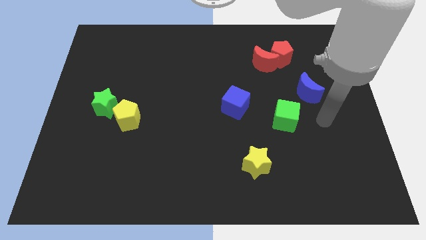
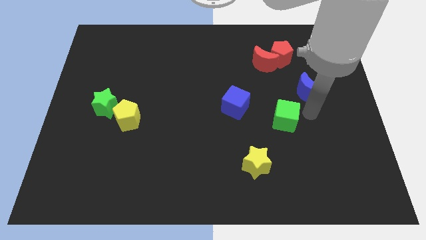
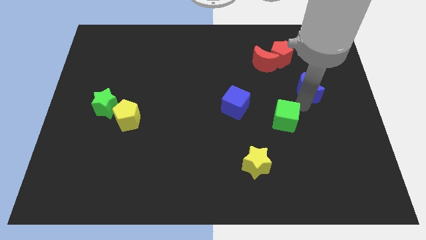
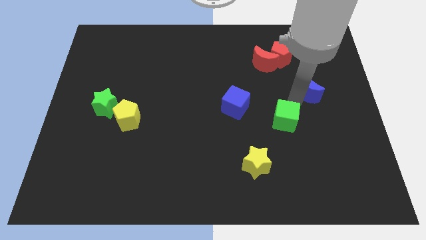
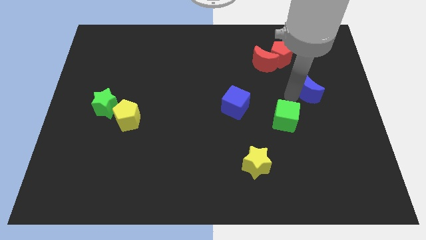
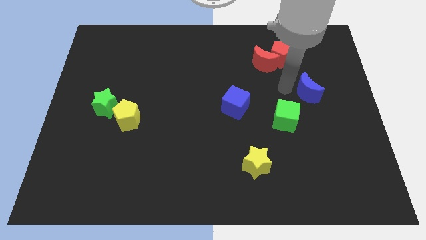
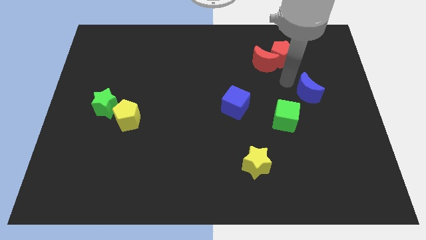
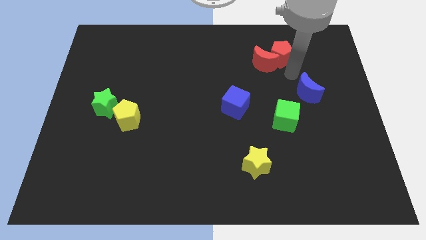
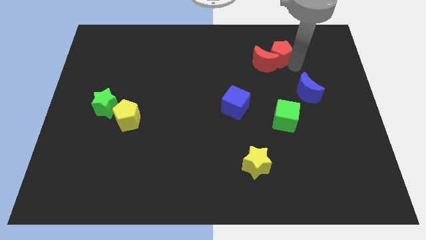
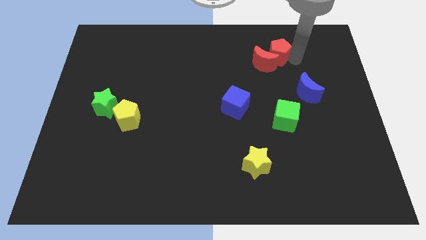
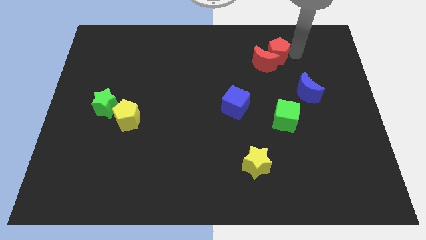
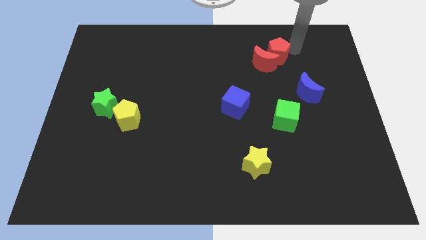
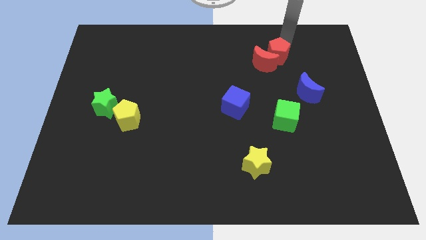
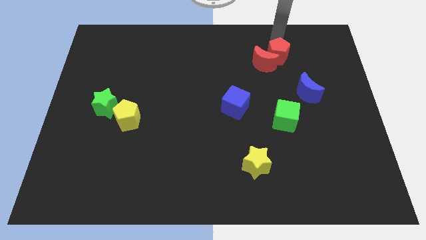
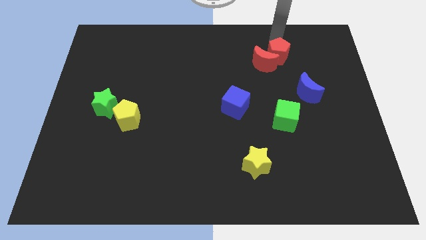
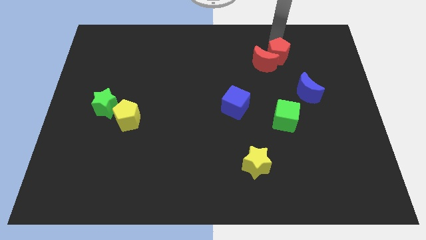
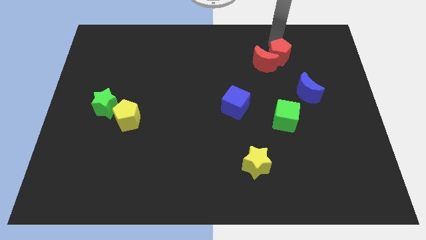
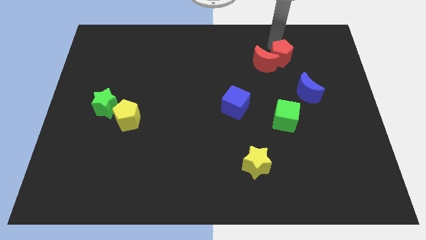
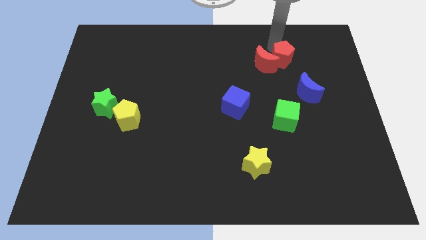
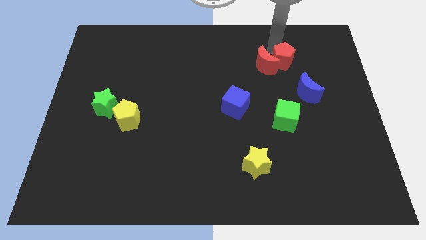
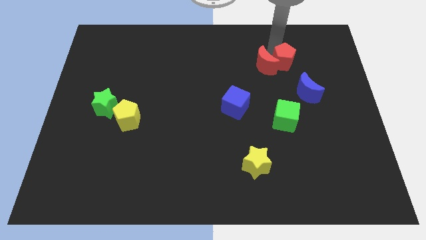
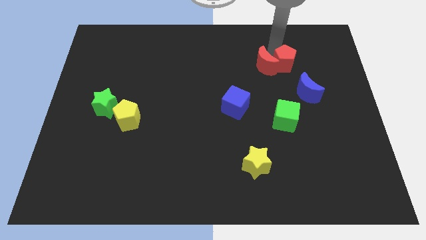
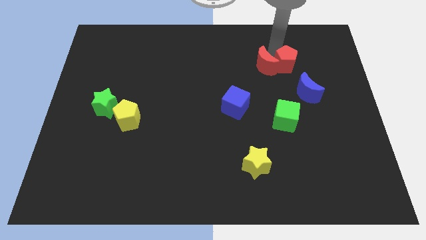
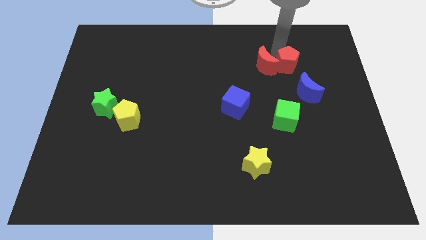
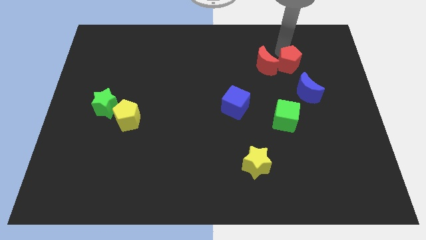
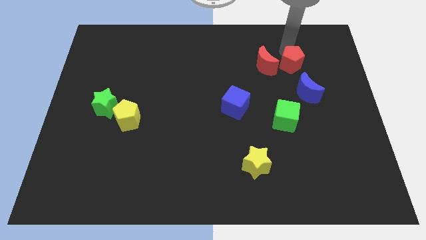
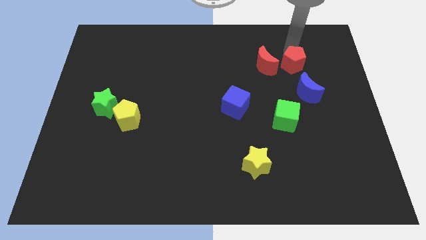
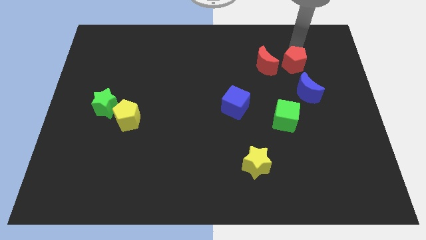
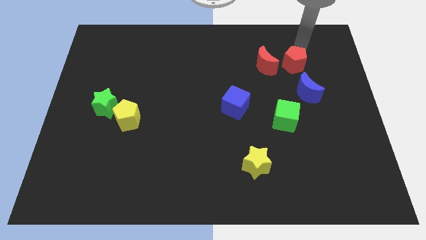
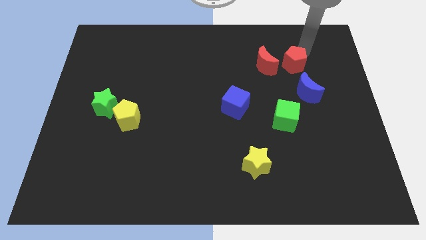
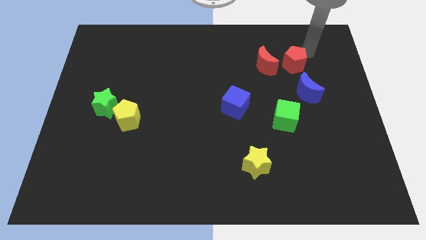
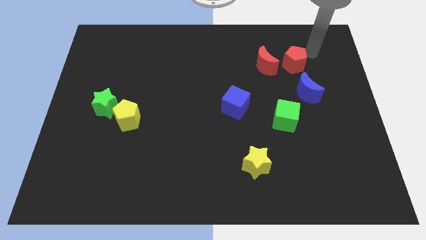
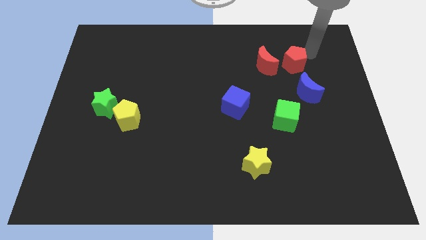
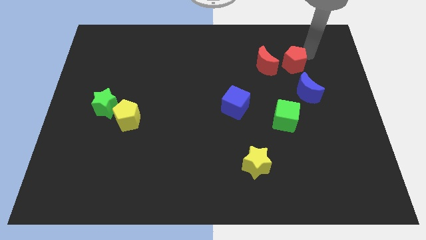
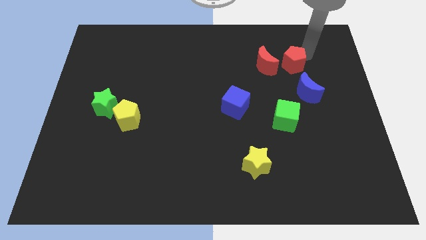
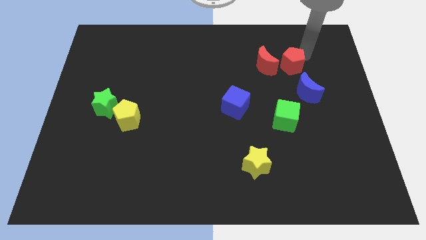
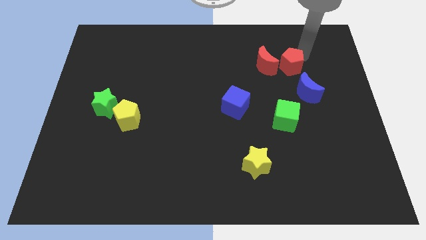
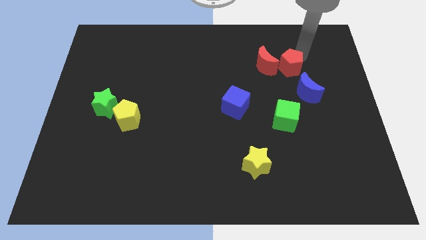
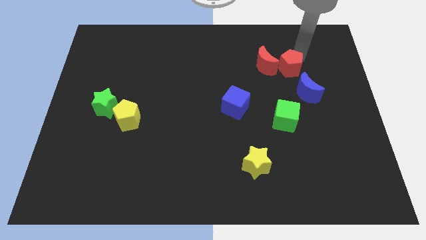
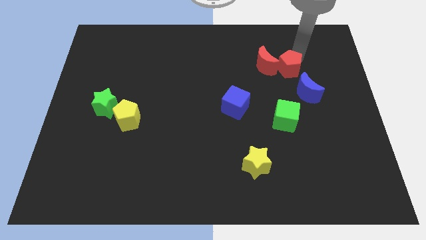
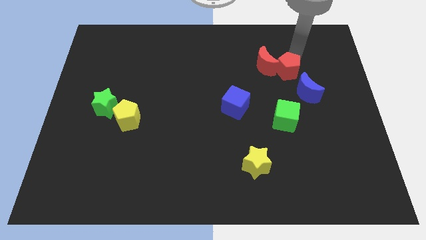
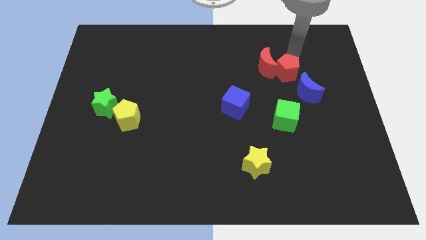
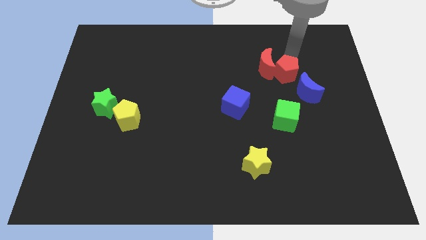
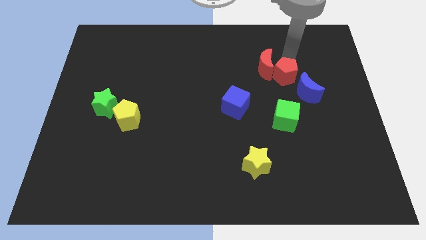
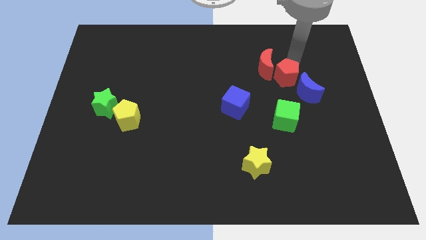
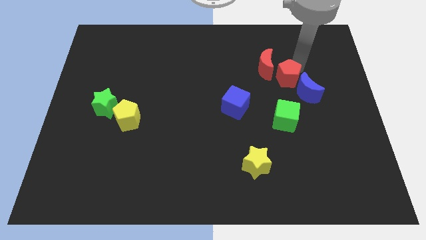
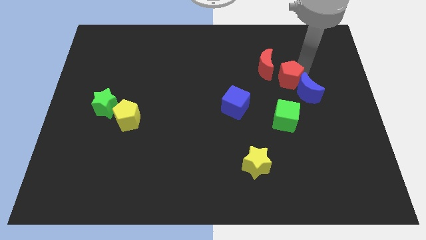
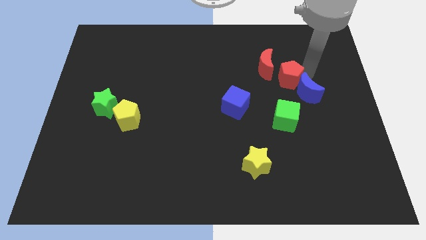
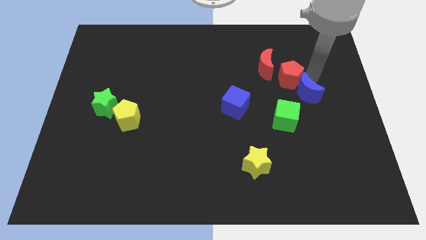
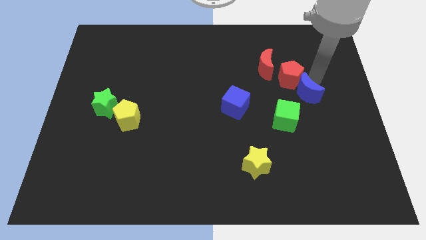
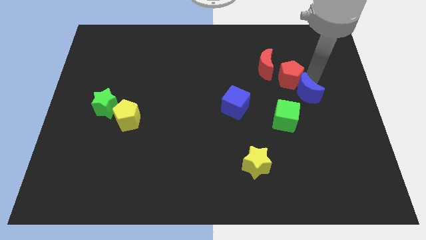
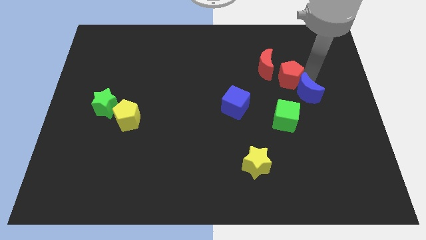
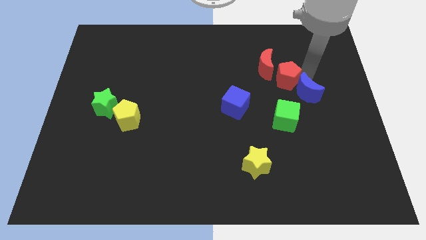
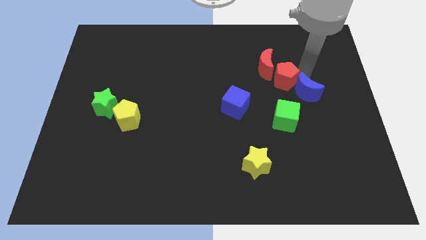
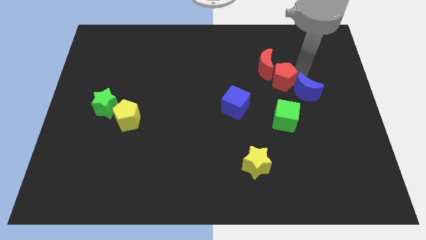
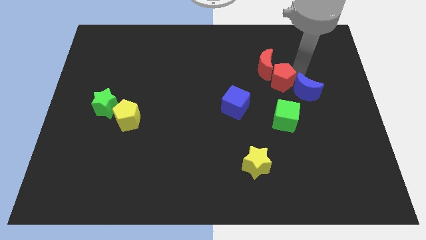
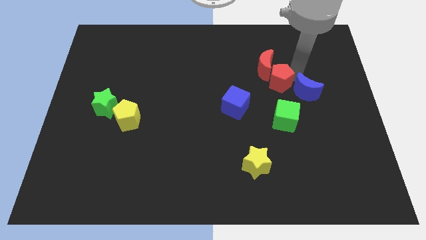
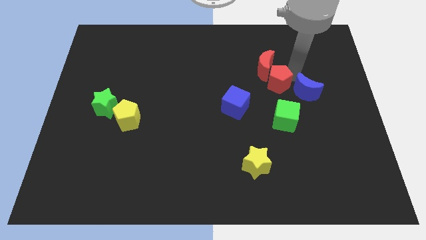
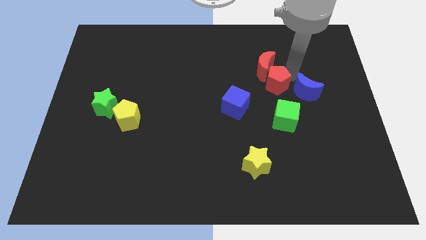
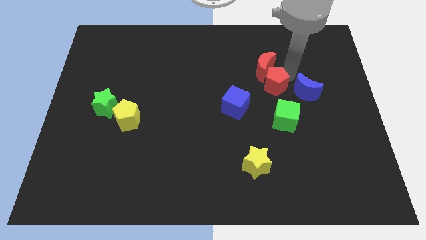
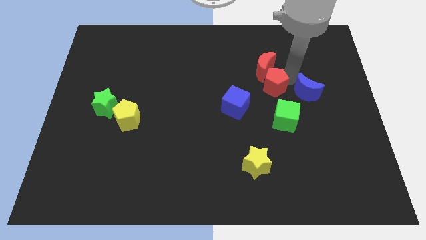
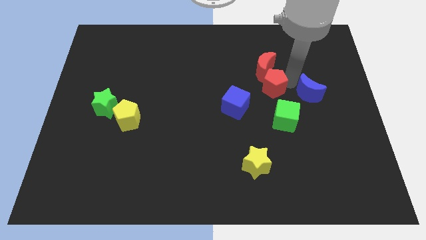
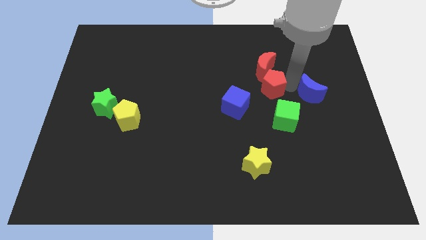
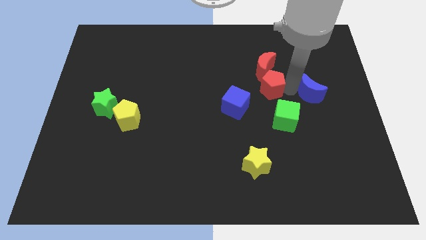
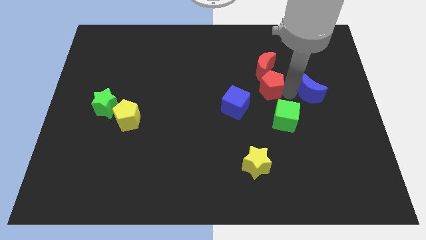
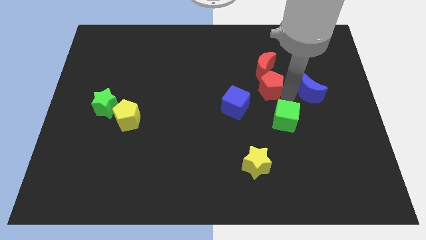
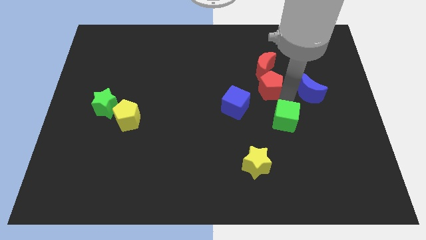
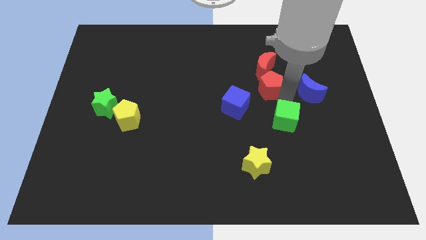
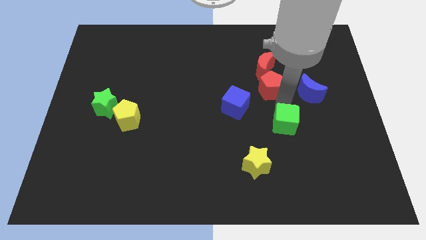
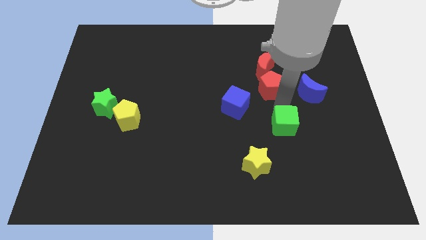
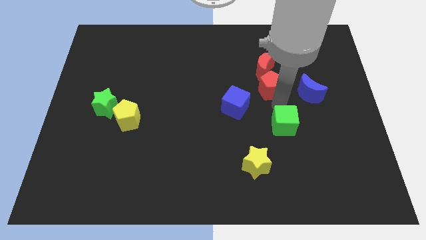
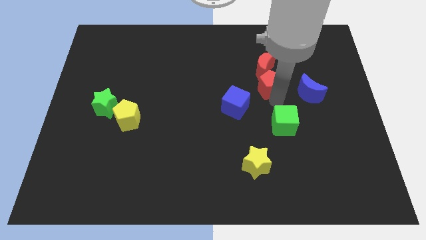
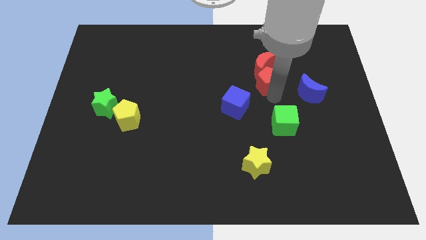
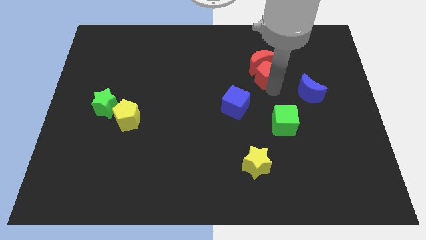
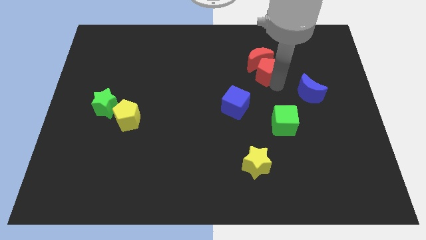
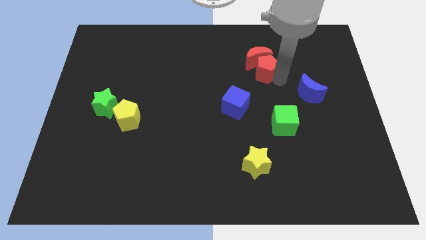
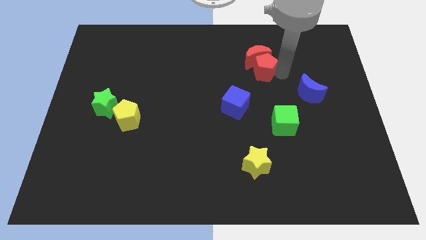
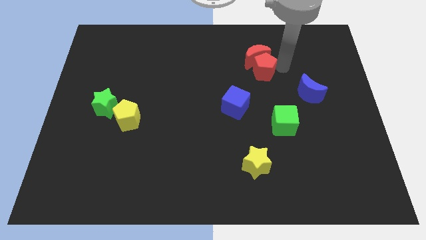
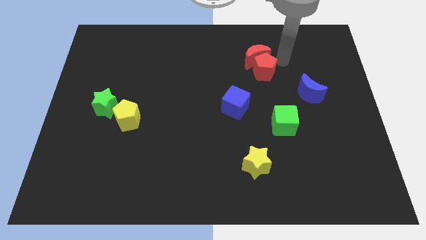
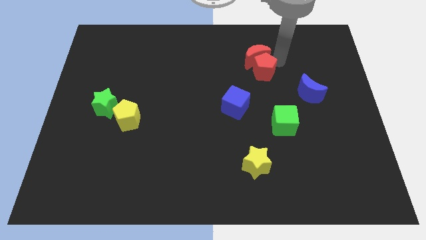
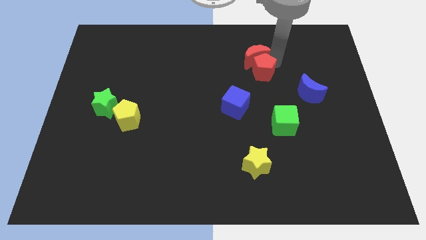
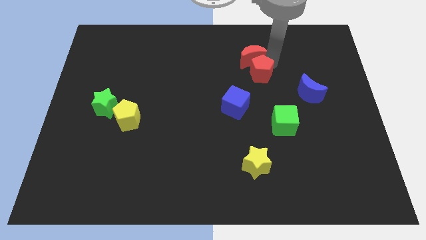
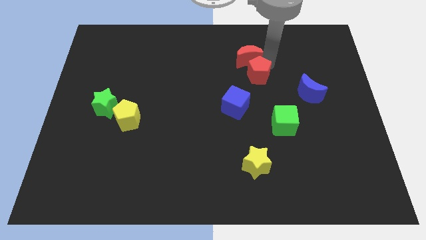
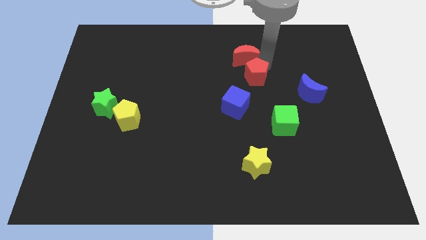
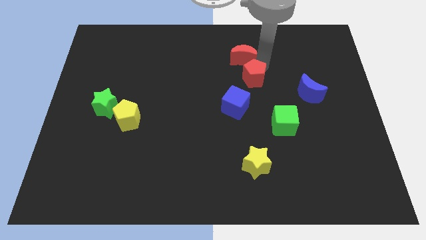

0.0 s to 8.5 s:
slide the red pentagon to the middle of the board
